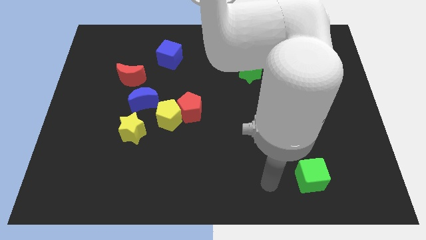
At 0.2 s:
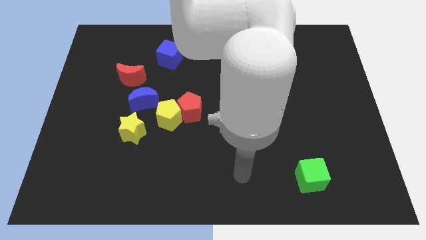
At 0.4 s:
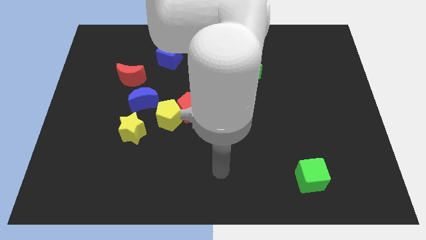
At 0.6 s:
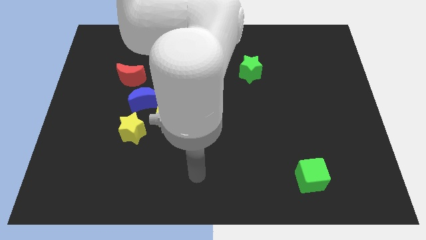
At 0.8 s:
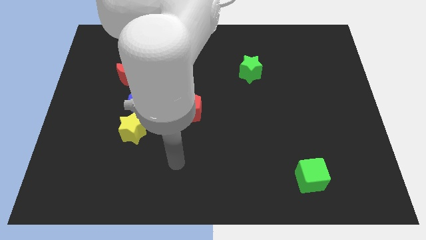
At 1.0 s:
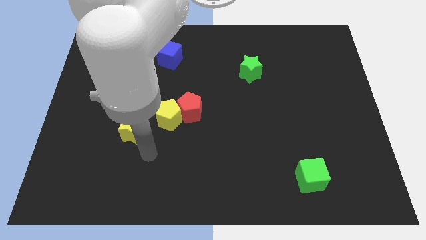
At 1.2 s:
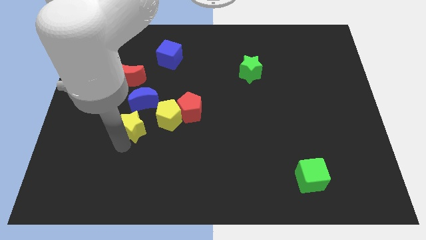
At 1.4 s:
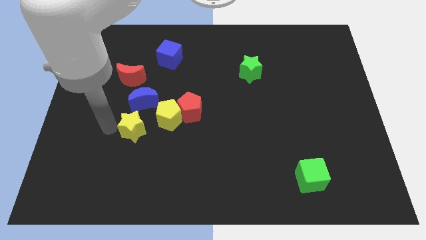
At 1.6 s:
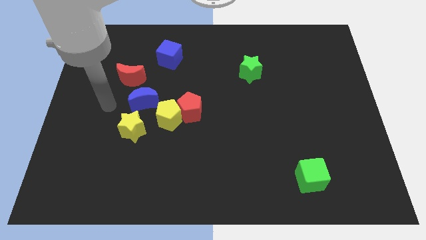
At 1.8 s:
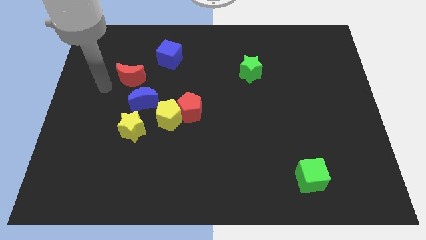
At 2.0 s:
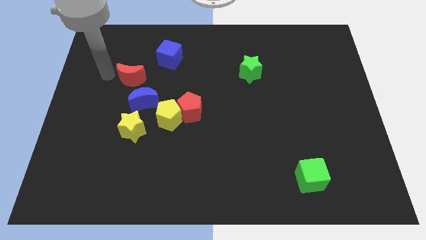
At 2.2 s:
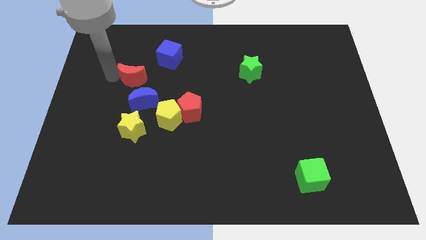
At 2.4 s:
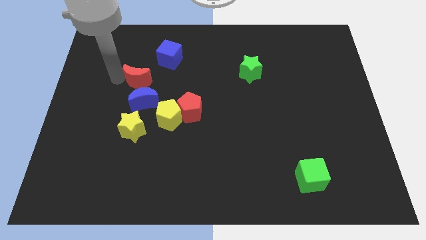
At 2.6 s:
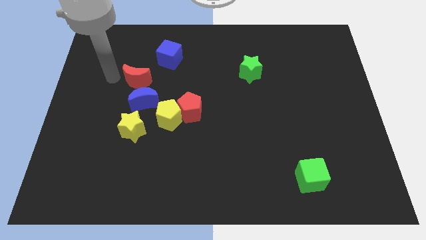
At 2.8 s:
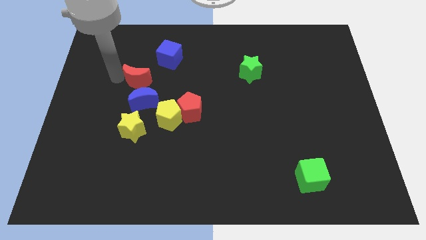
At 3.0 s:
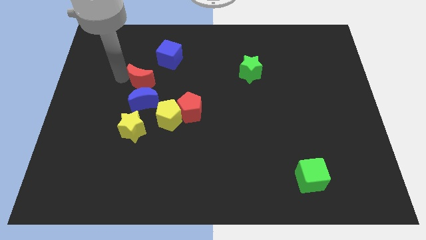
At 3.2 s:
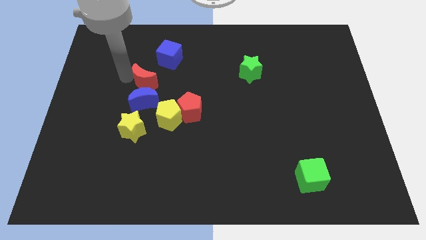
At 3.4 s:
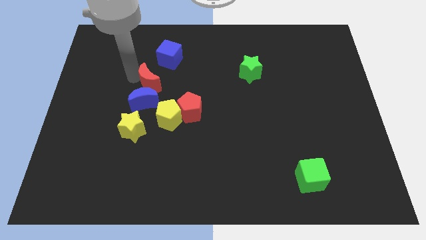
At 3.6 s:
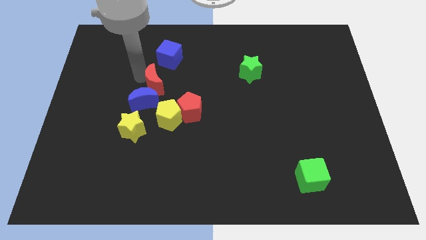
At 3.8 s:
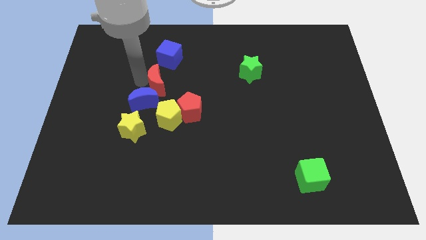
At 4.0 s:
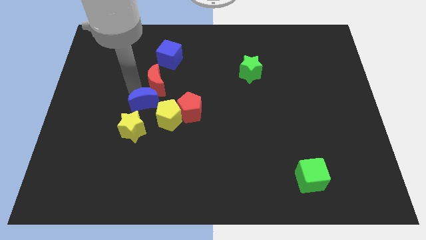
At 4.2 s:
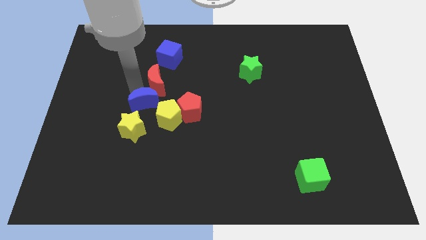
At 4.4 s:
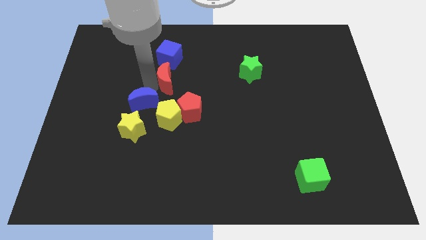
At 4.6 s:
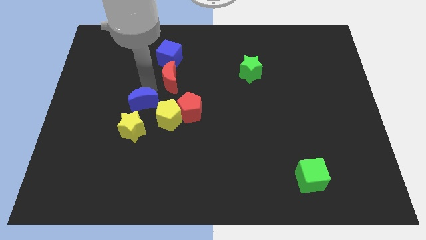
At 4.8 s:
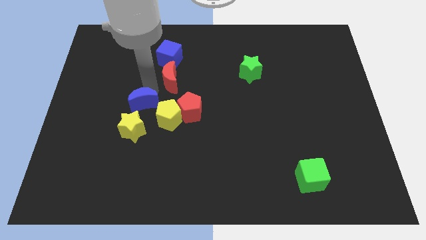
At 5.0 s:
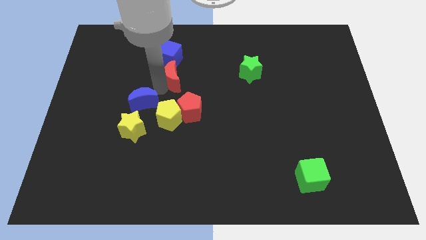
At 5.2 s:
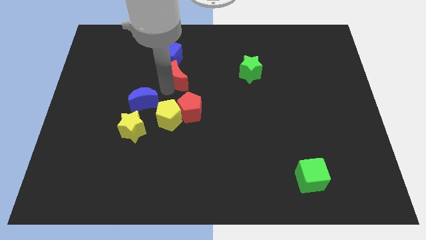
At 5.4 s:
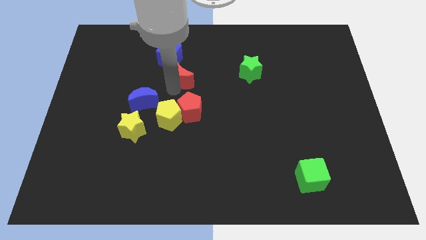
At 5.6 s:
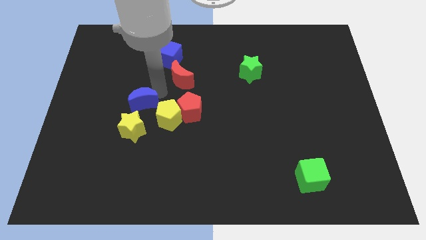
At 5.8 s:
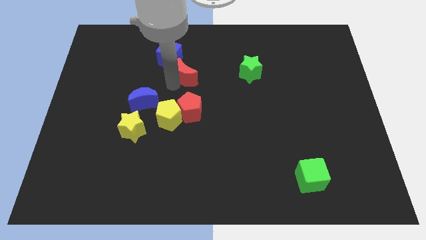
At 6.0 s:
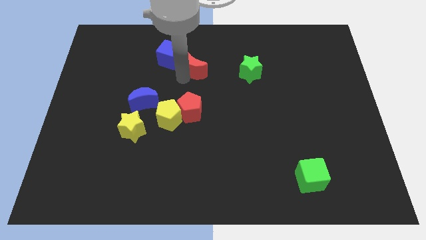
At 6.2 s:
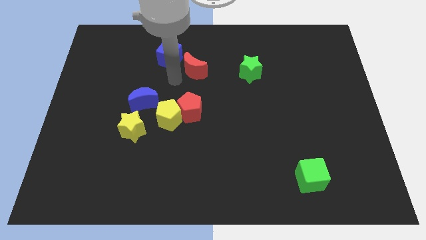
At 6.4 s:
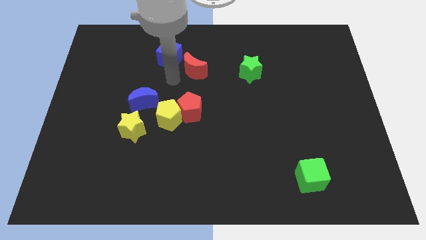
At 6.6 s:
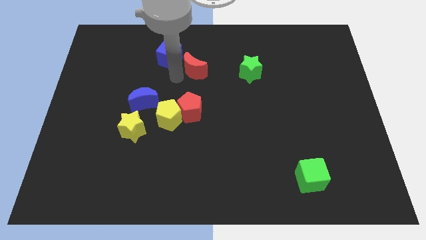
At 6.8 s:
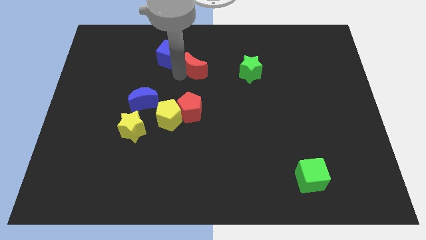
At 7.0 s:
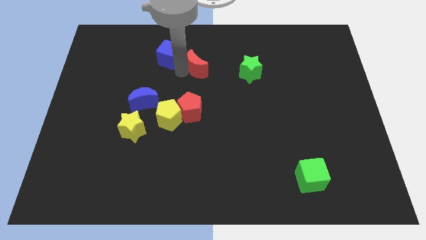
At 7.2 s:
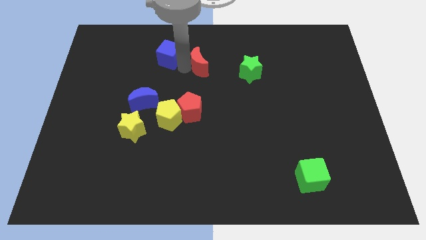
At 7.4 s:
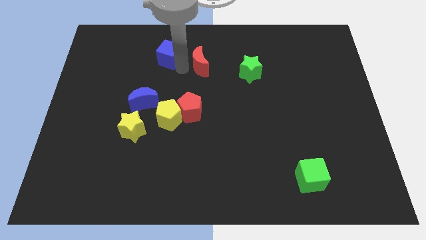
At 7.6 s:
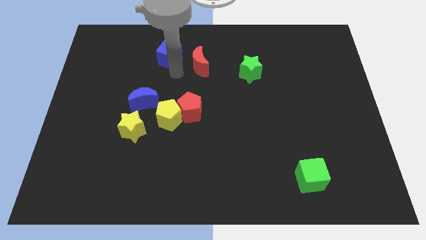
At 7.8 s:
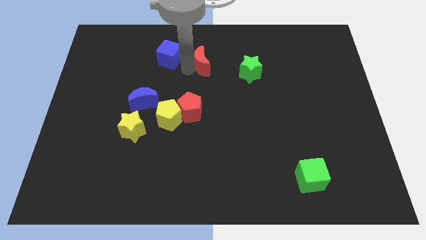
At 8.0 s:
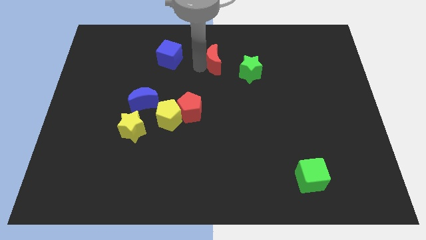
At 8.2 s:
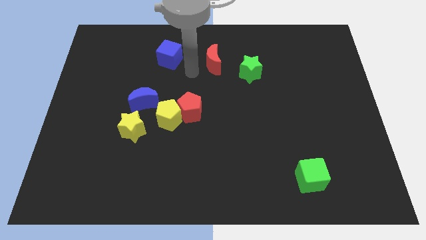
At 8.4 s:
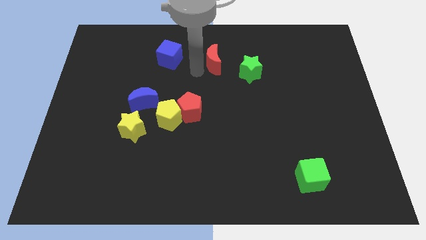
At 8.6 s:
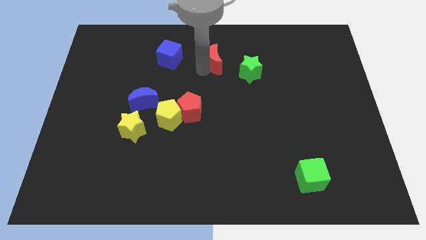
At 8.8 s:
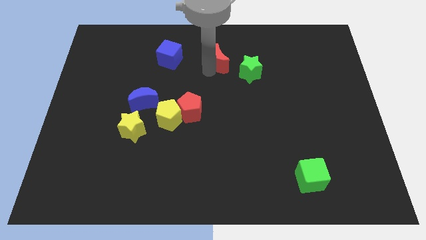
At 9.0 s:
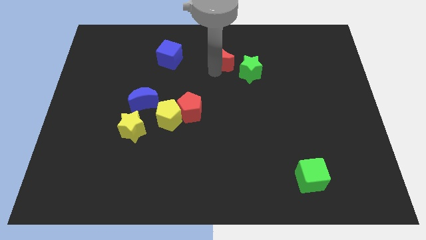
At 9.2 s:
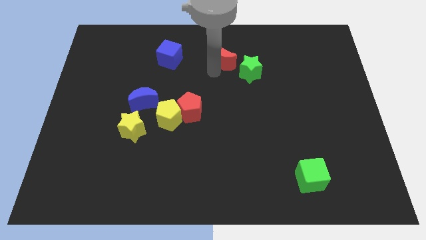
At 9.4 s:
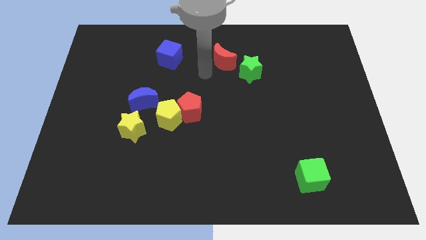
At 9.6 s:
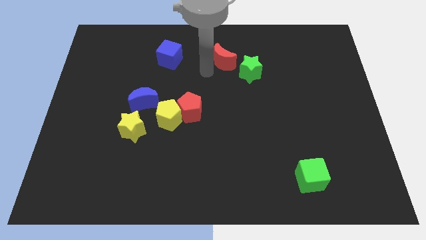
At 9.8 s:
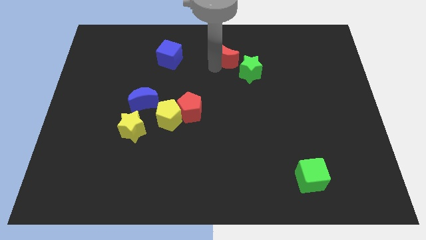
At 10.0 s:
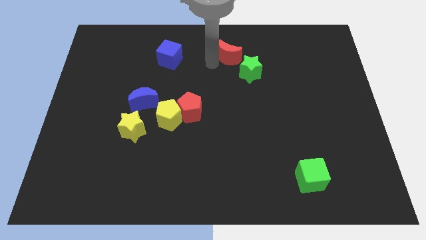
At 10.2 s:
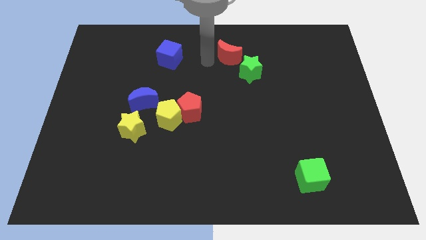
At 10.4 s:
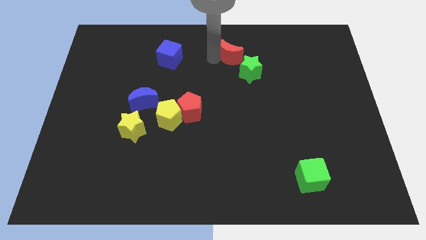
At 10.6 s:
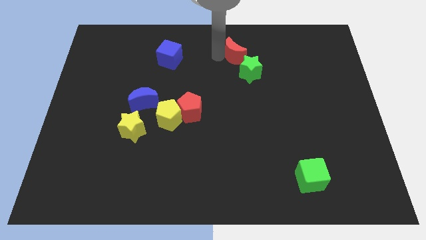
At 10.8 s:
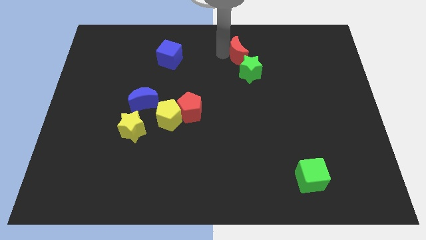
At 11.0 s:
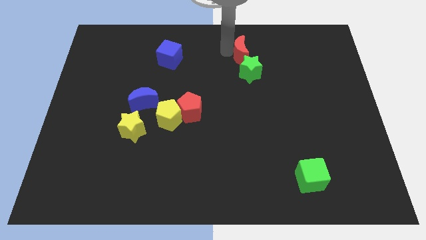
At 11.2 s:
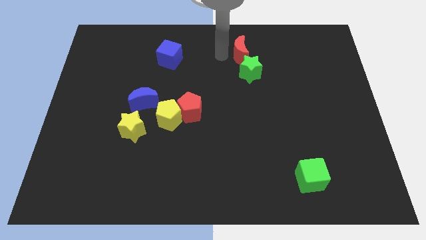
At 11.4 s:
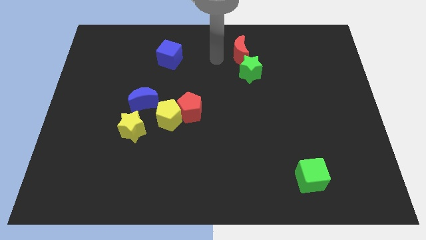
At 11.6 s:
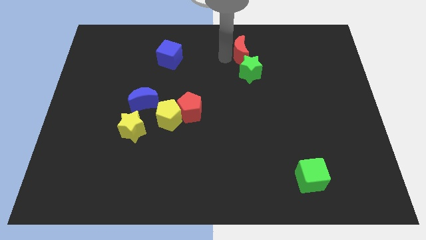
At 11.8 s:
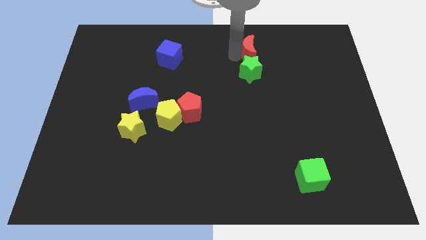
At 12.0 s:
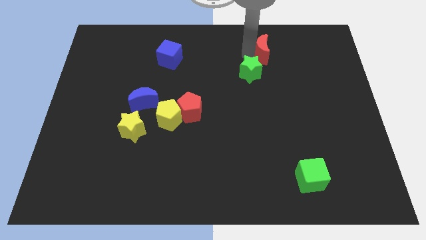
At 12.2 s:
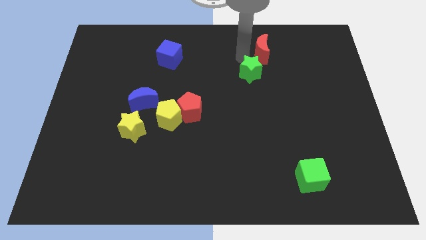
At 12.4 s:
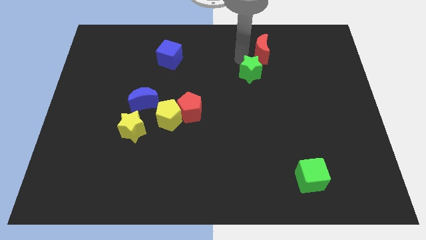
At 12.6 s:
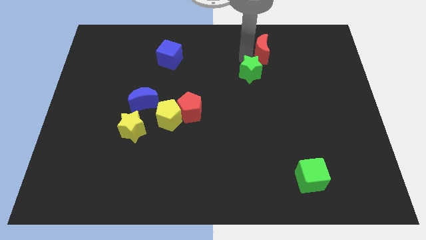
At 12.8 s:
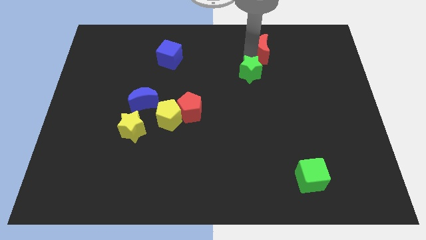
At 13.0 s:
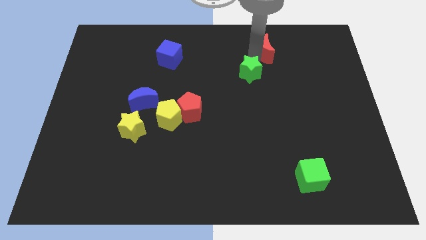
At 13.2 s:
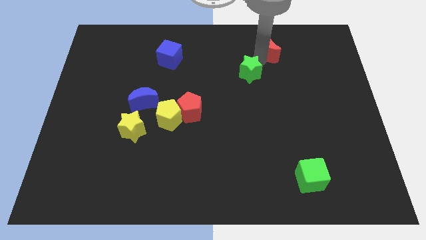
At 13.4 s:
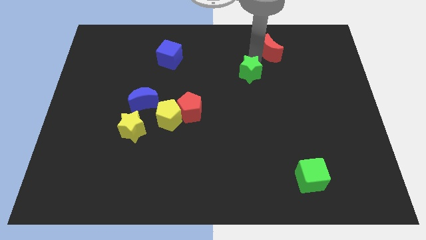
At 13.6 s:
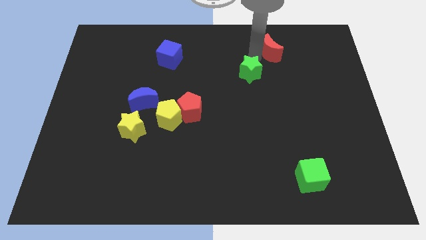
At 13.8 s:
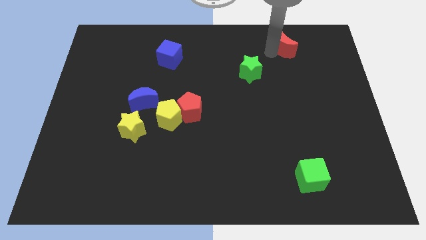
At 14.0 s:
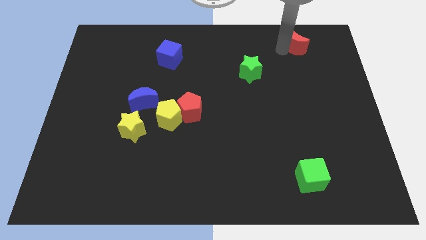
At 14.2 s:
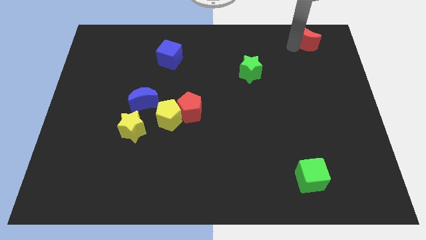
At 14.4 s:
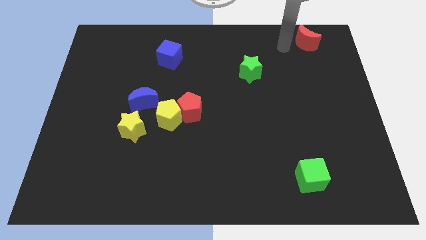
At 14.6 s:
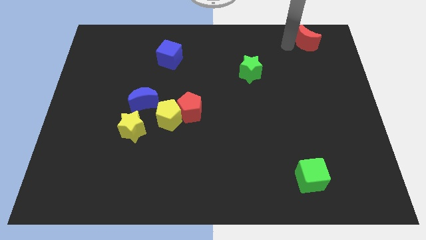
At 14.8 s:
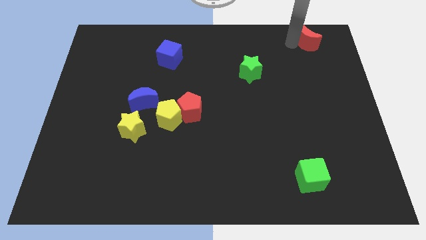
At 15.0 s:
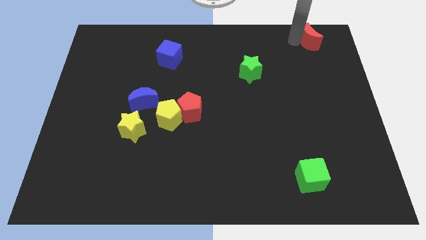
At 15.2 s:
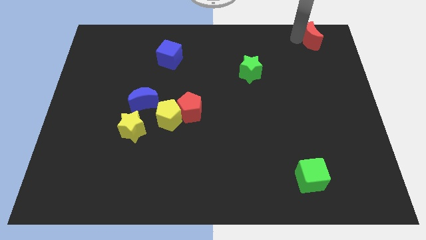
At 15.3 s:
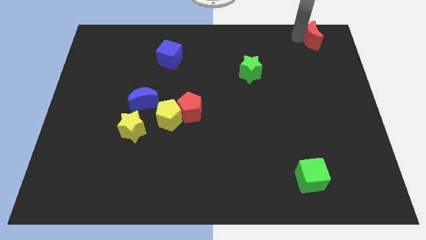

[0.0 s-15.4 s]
put the red moon to the top right corner
